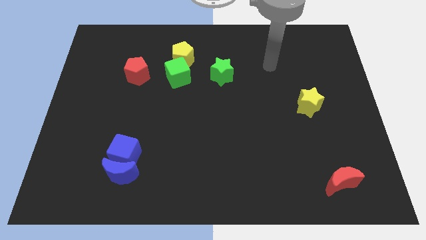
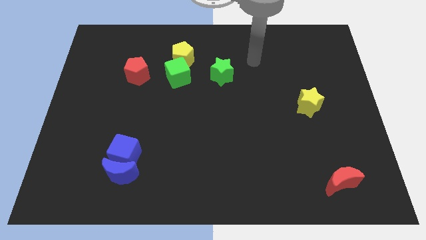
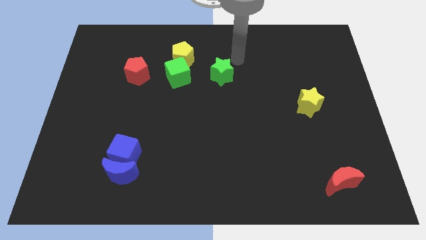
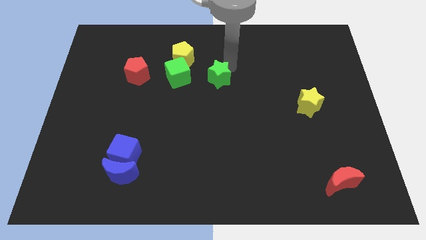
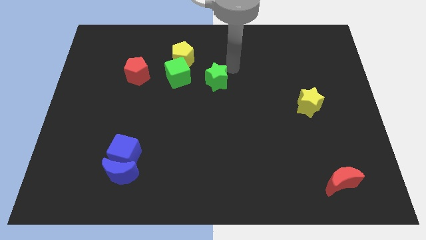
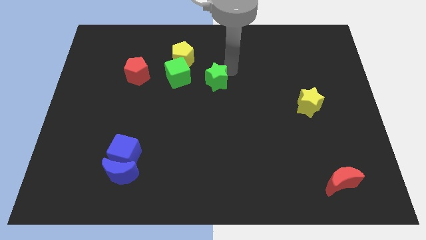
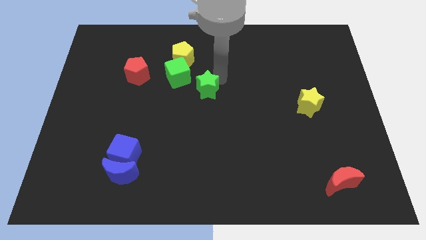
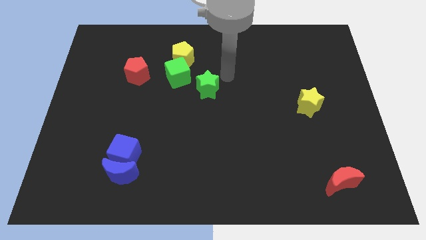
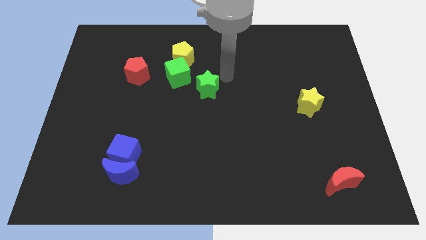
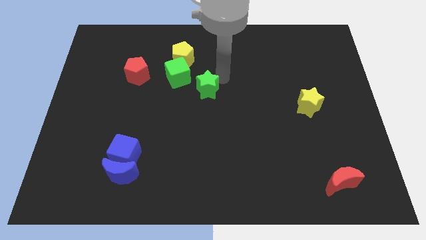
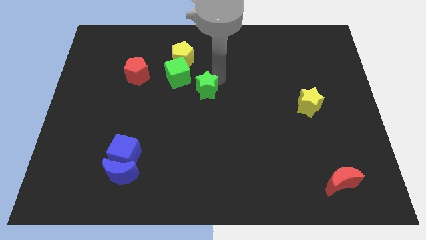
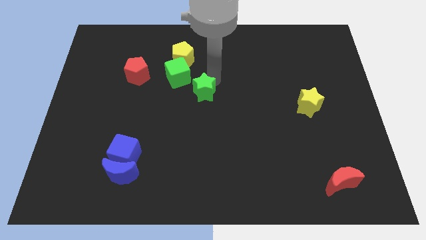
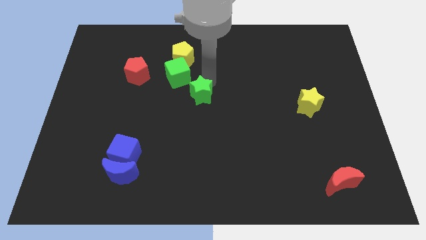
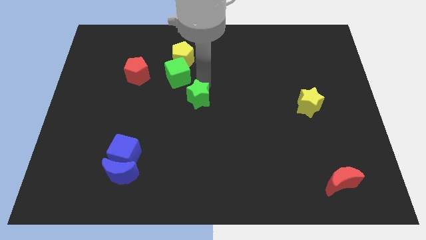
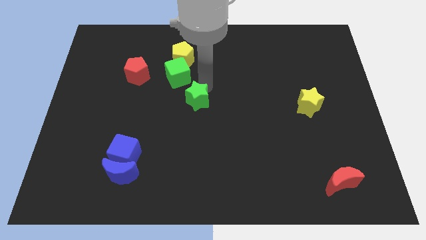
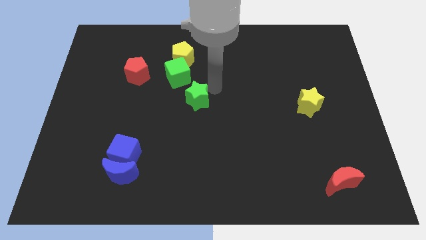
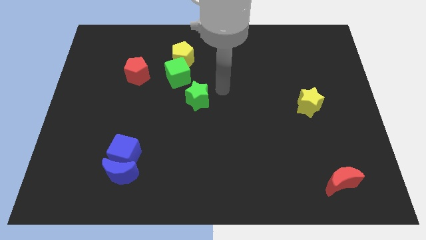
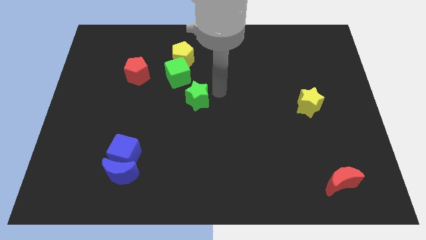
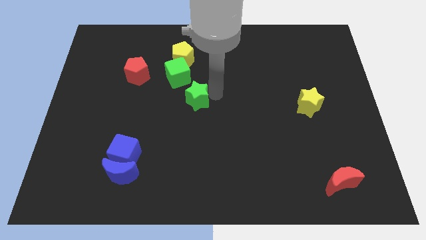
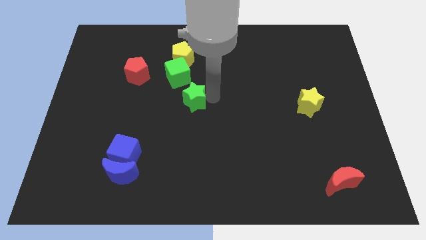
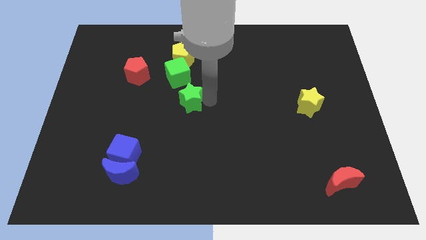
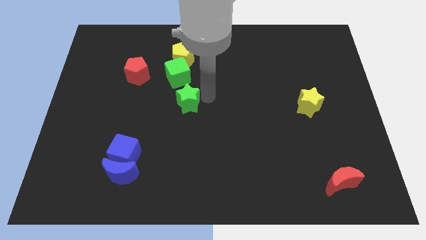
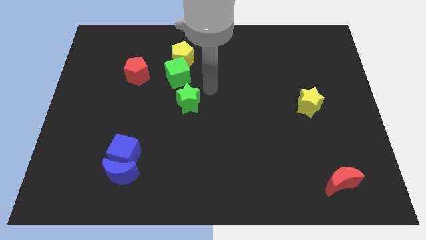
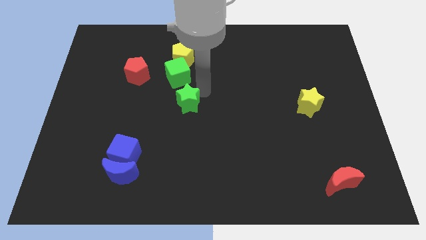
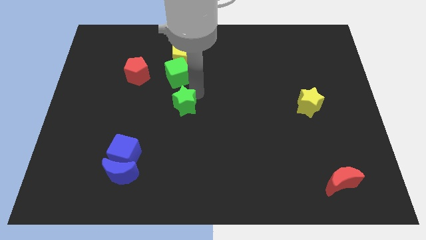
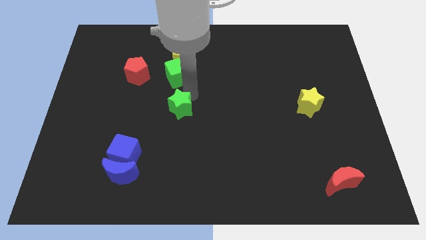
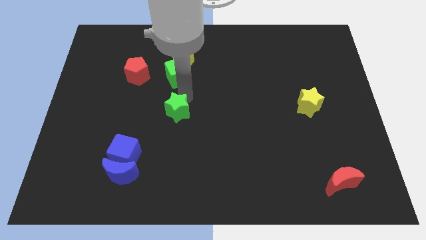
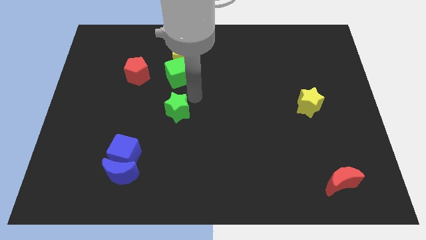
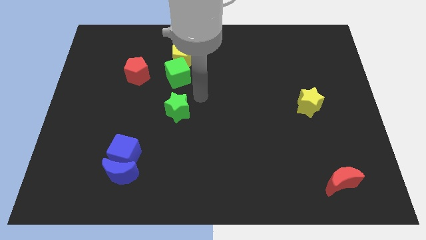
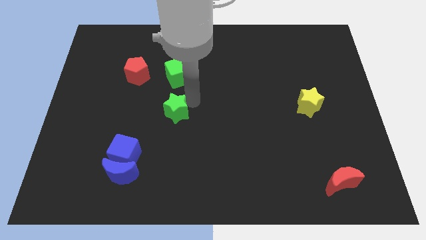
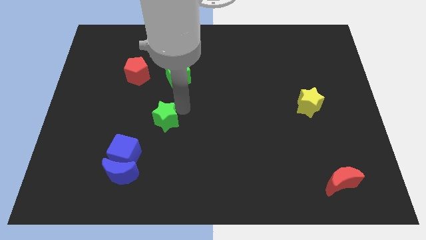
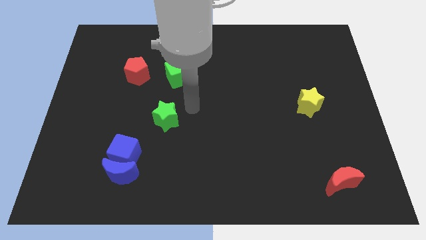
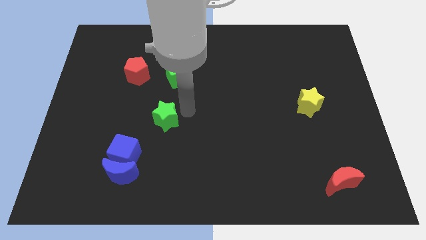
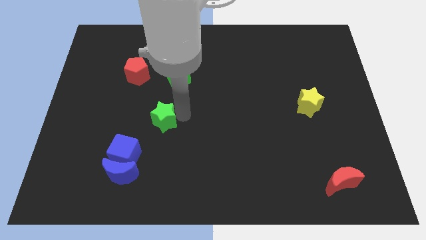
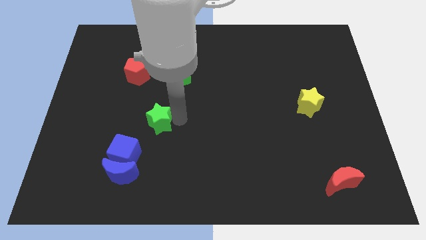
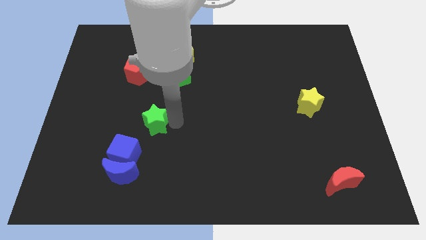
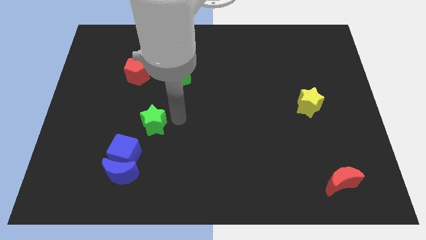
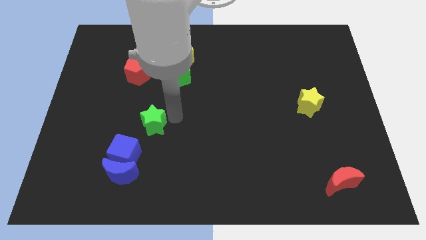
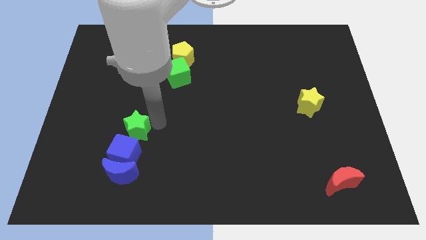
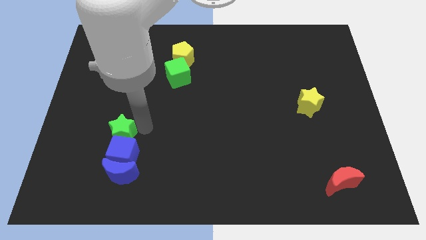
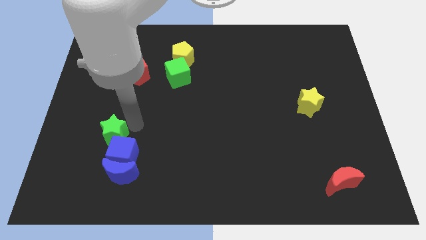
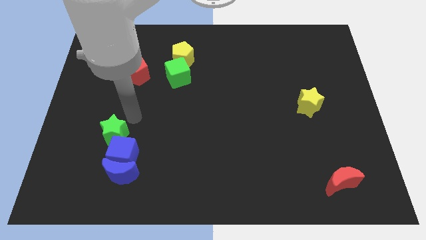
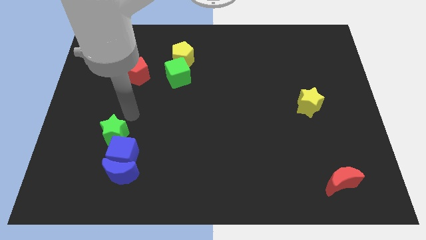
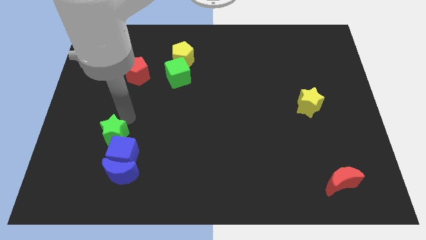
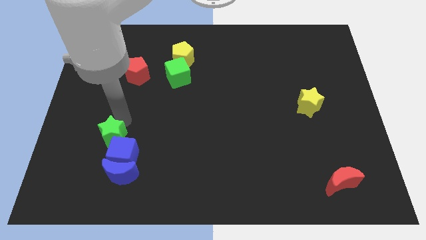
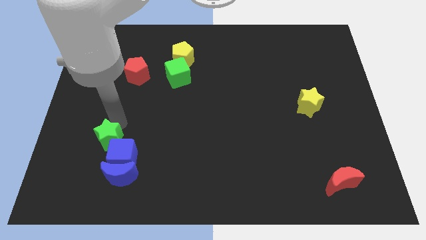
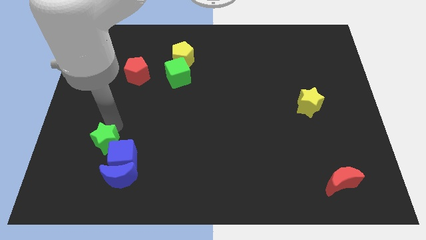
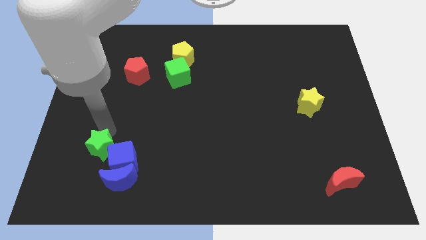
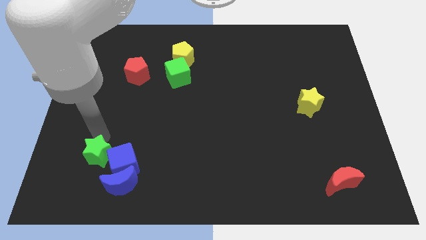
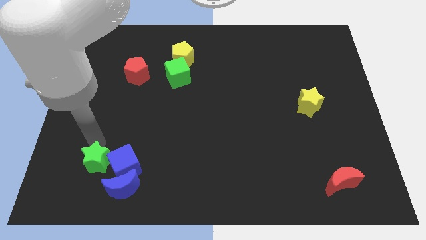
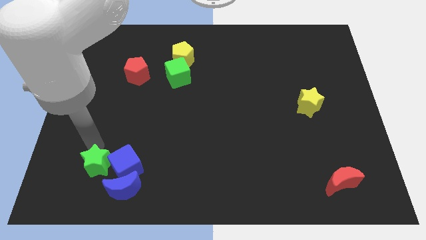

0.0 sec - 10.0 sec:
put the green star to the bottom left of the blue cube

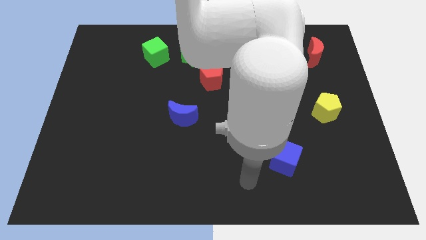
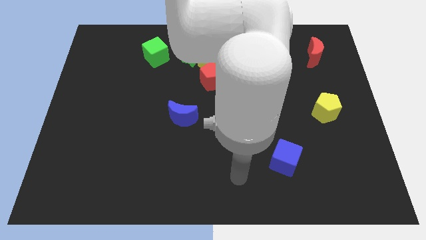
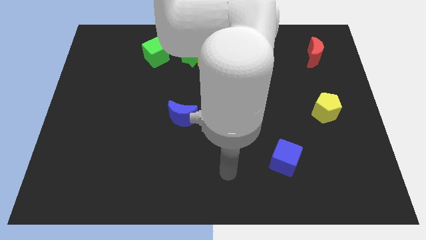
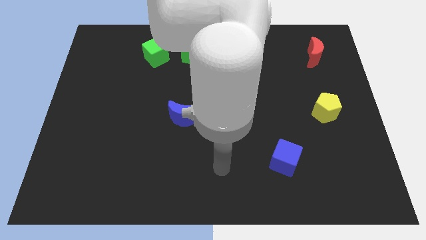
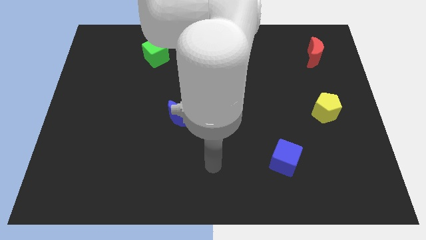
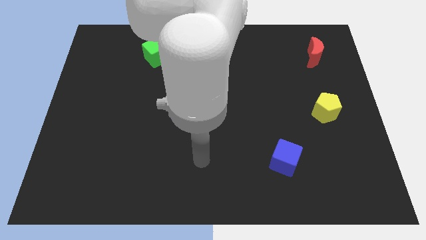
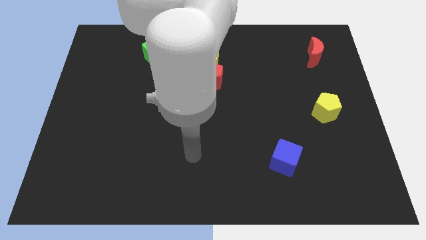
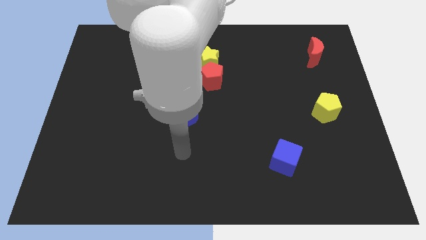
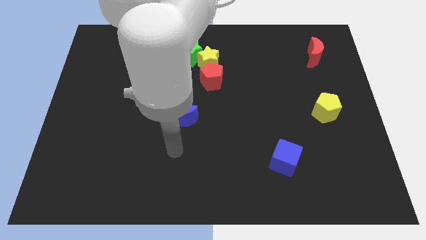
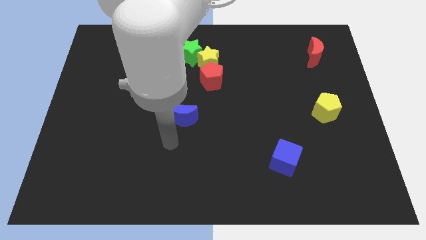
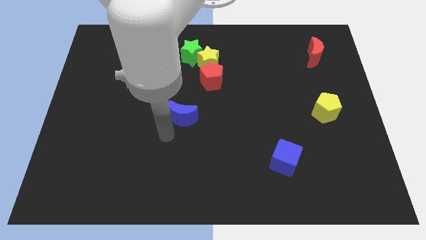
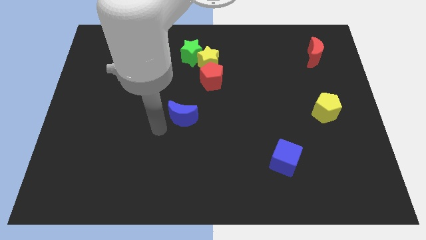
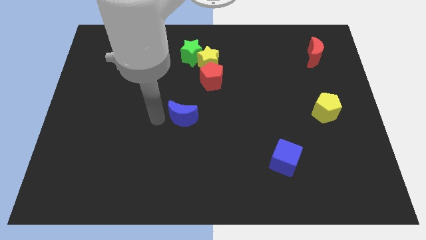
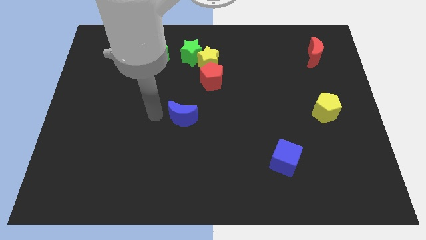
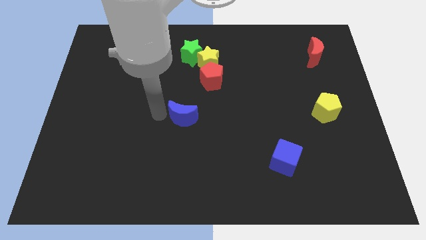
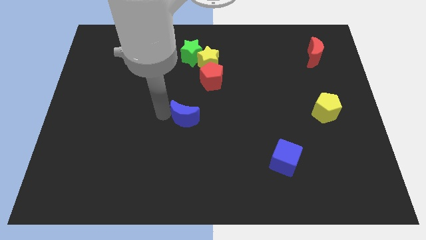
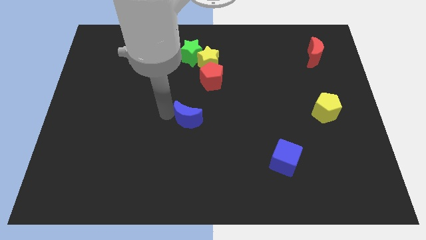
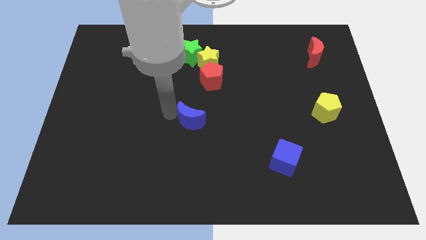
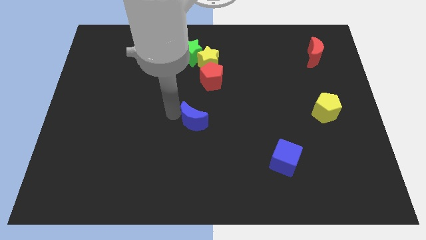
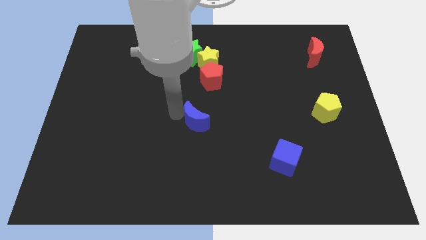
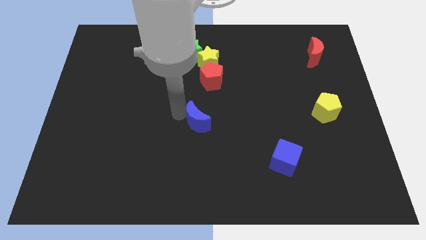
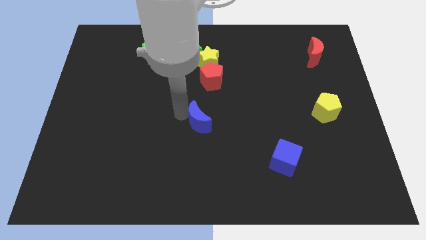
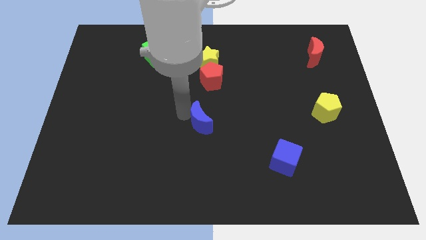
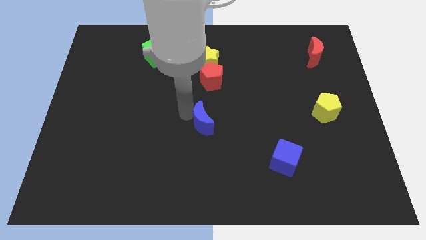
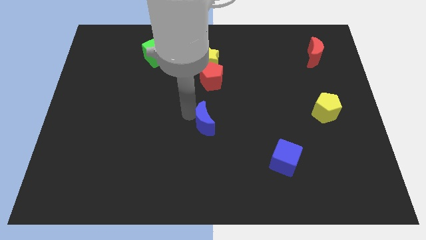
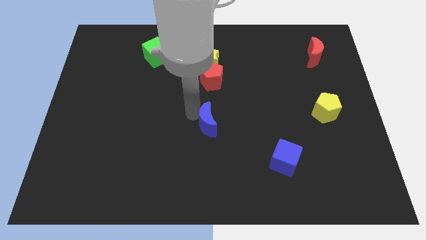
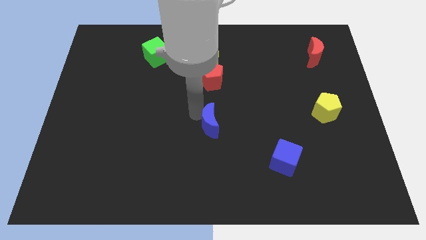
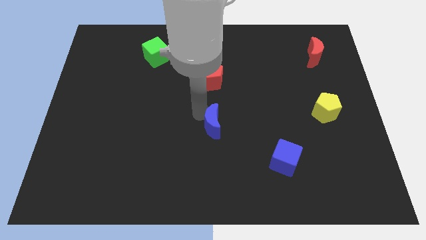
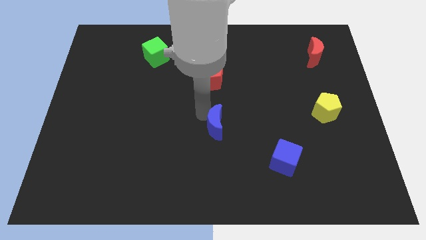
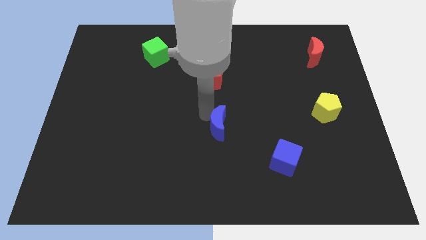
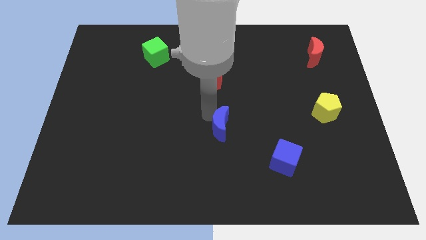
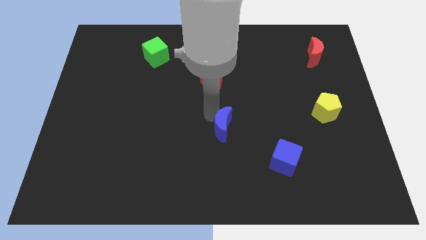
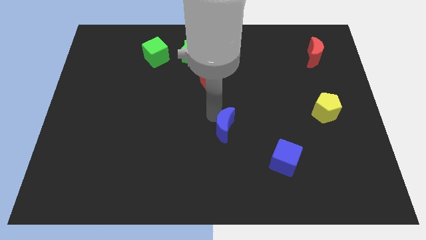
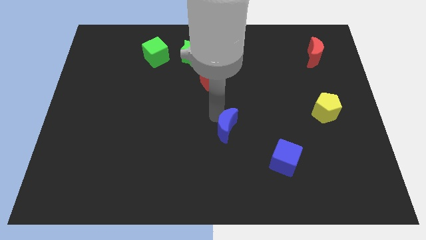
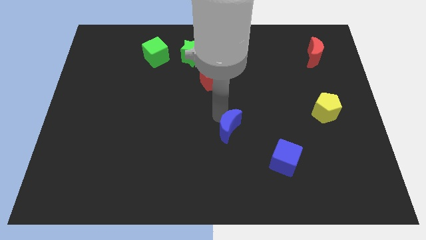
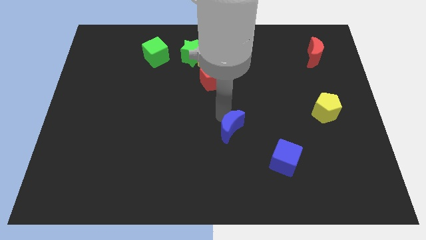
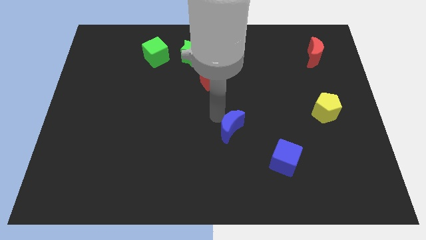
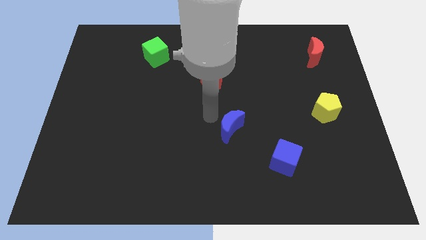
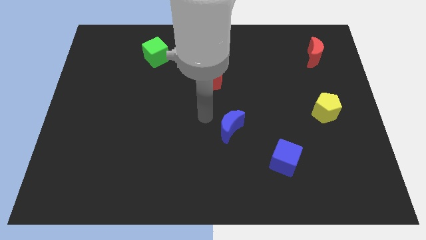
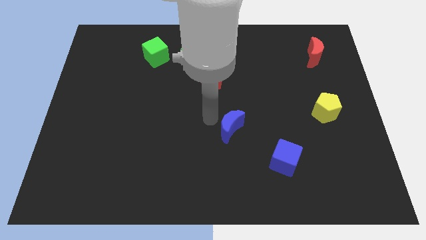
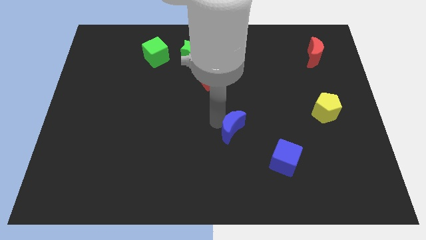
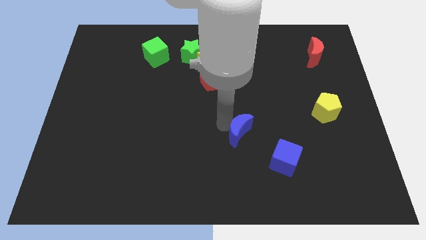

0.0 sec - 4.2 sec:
push the blue moon to the top left side of the blue cube
